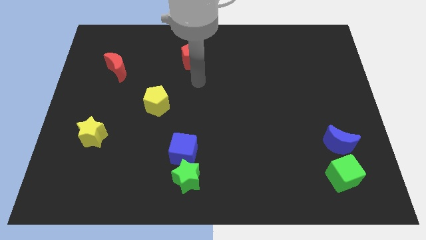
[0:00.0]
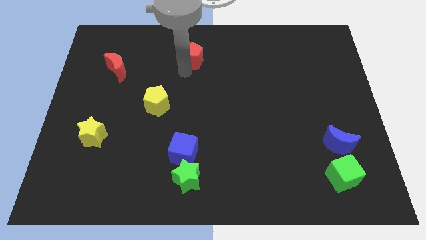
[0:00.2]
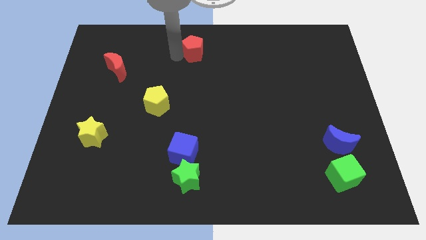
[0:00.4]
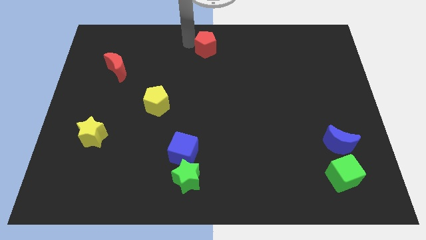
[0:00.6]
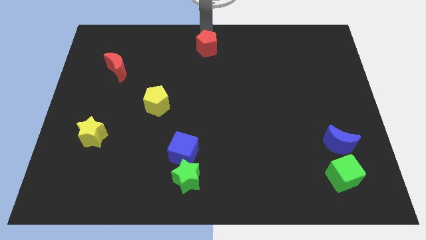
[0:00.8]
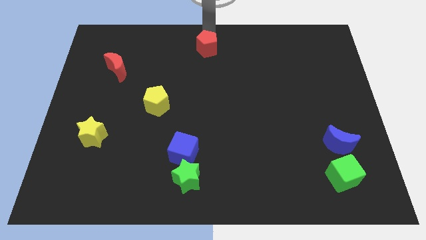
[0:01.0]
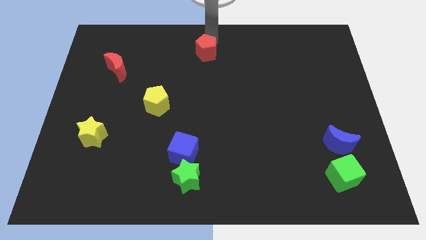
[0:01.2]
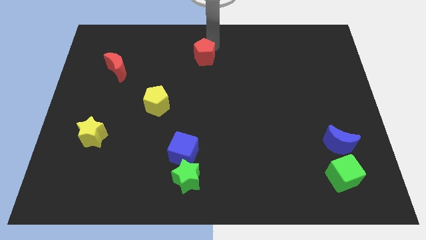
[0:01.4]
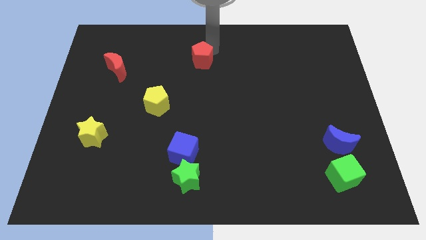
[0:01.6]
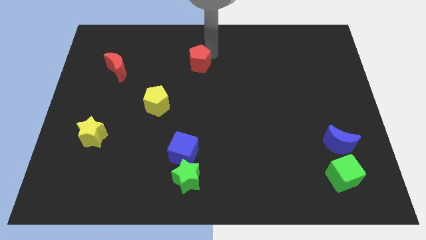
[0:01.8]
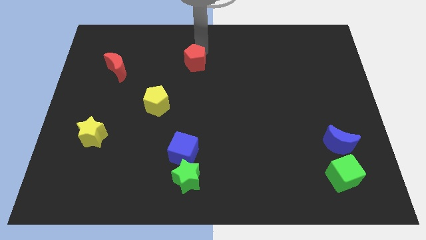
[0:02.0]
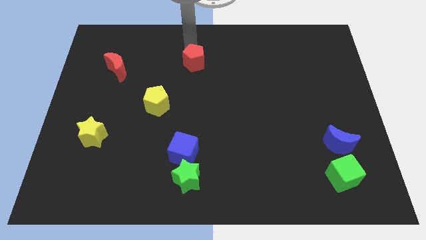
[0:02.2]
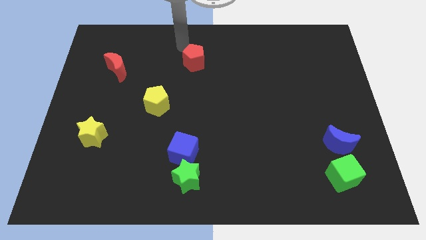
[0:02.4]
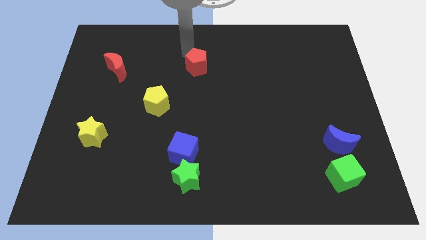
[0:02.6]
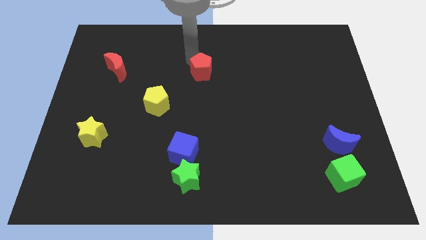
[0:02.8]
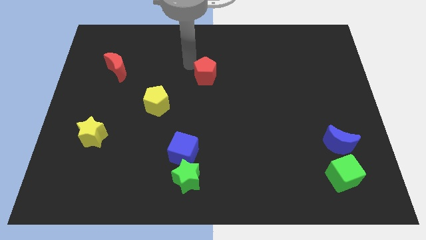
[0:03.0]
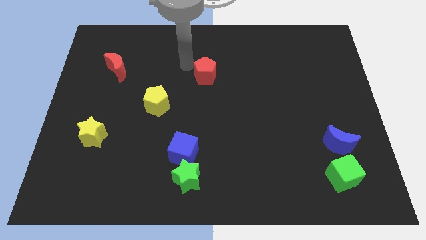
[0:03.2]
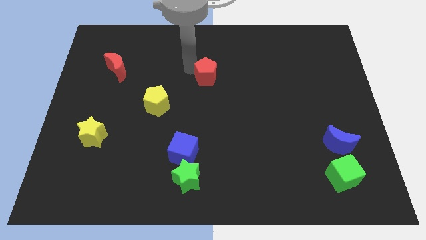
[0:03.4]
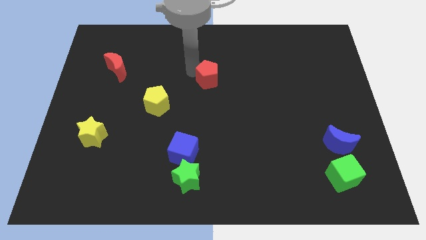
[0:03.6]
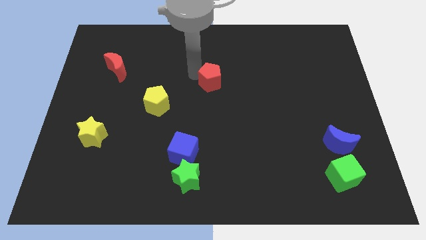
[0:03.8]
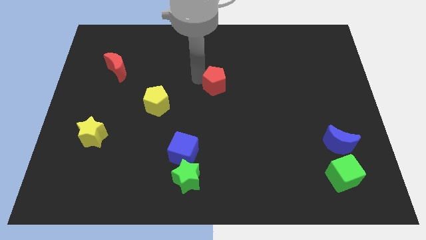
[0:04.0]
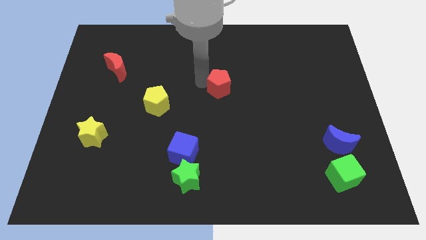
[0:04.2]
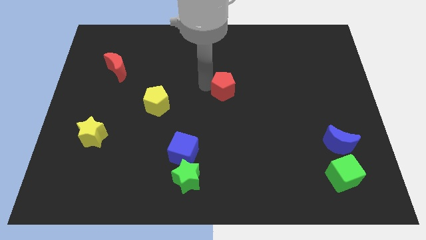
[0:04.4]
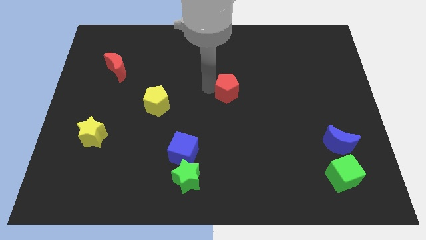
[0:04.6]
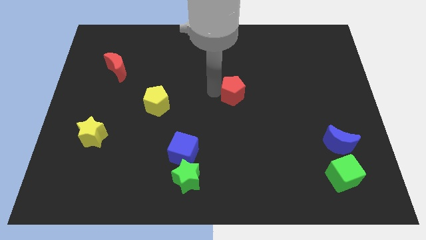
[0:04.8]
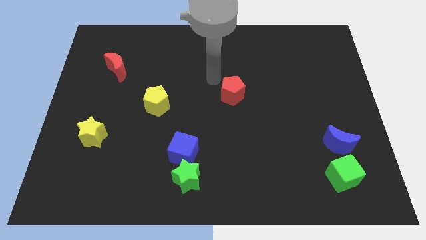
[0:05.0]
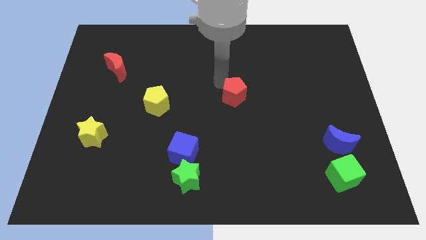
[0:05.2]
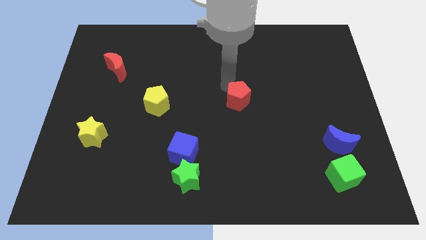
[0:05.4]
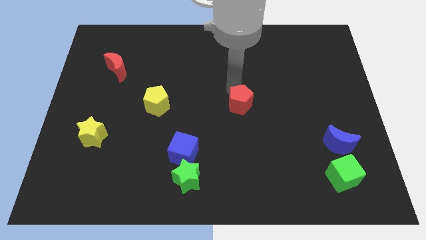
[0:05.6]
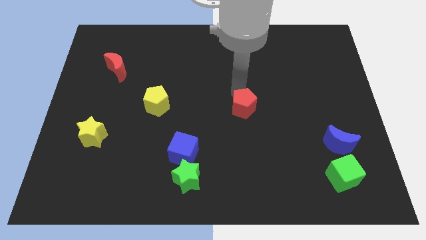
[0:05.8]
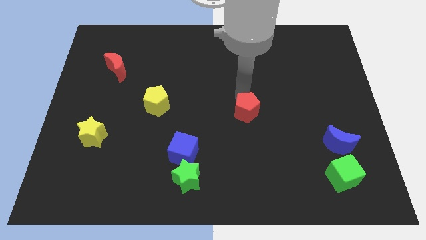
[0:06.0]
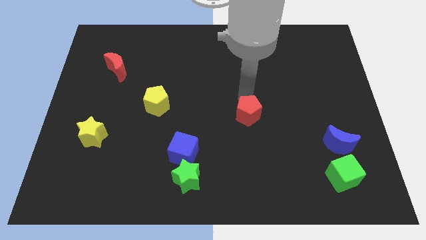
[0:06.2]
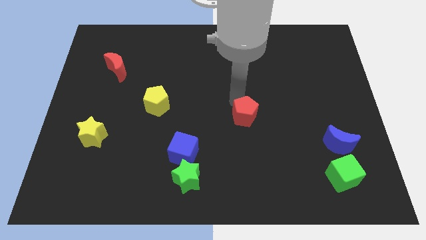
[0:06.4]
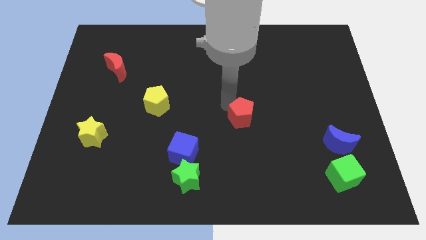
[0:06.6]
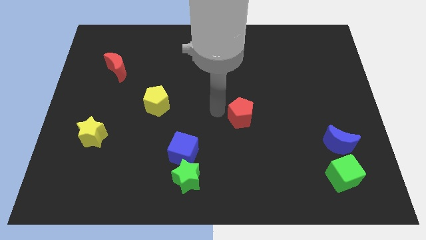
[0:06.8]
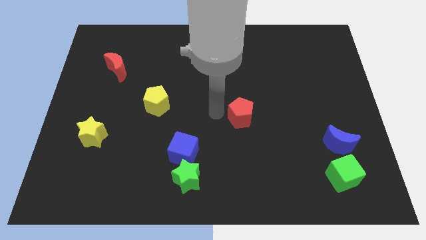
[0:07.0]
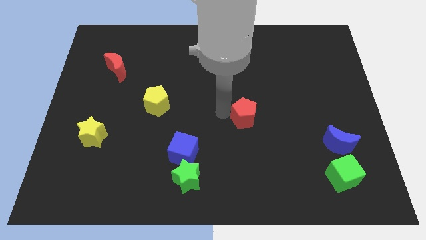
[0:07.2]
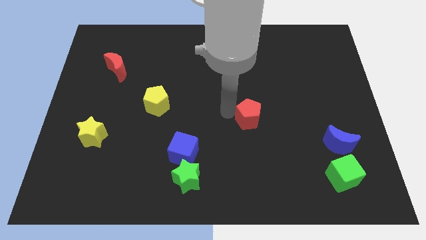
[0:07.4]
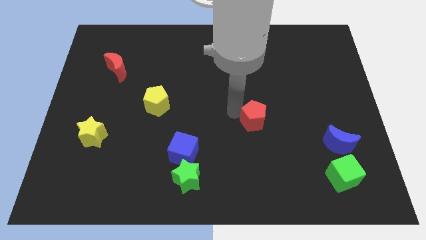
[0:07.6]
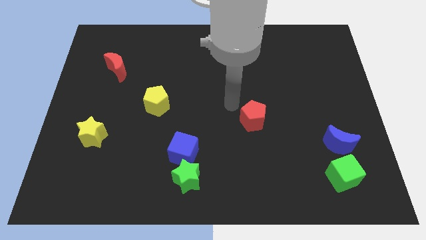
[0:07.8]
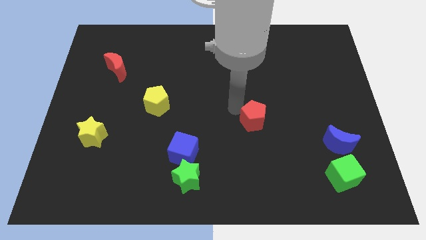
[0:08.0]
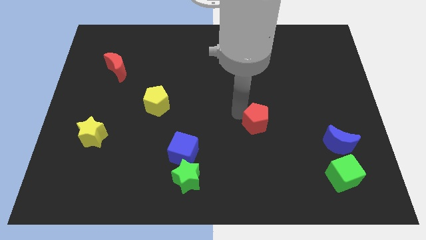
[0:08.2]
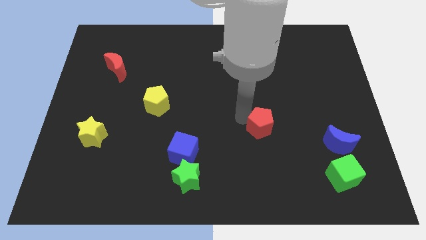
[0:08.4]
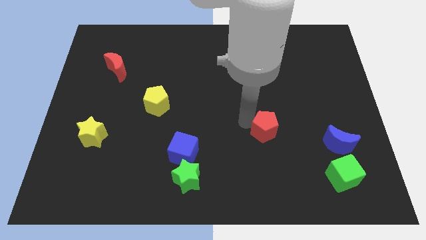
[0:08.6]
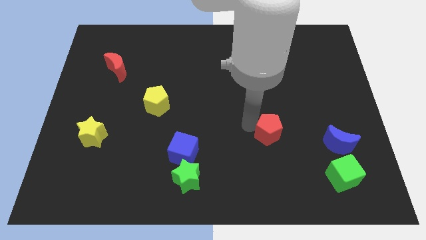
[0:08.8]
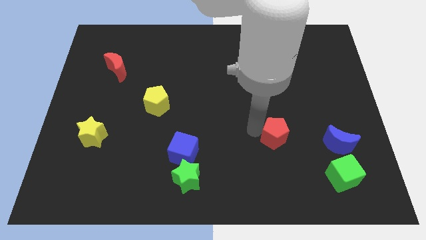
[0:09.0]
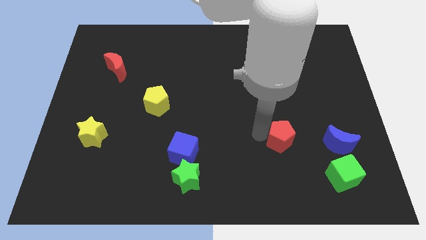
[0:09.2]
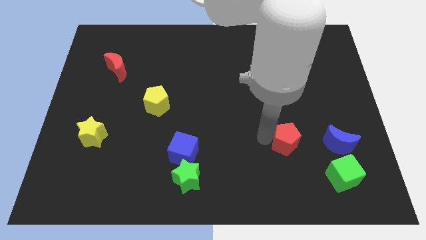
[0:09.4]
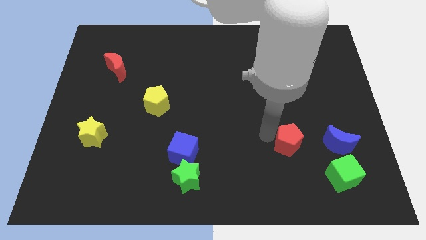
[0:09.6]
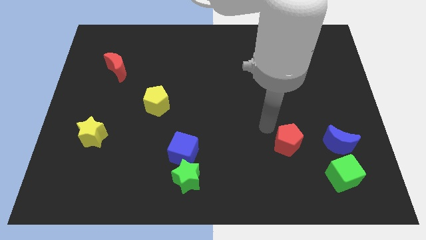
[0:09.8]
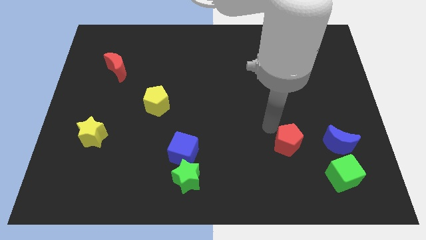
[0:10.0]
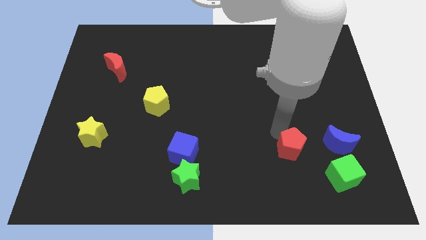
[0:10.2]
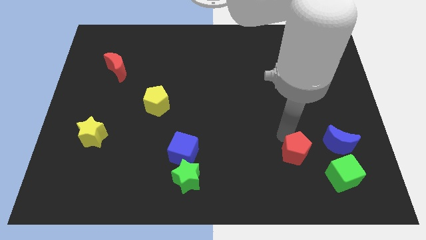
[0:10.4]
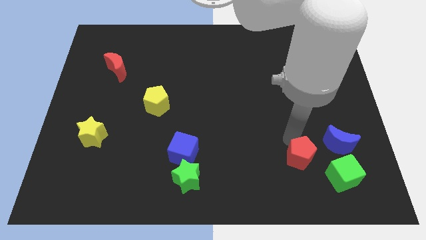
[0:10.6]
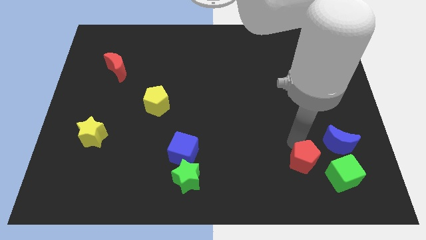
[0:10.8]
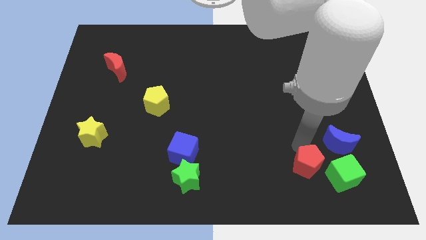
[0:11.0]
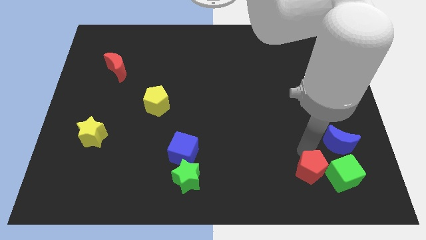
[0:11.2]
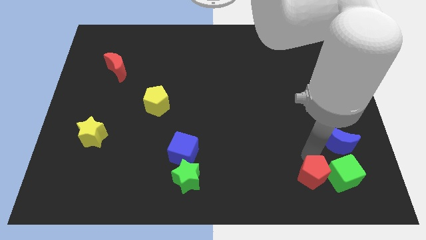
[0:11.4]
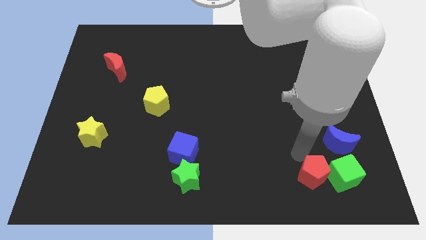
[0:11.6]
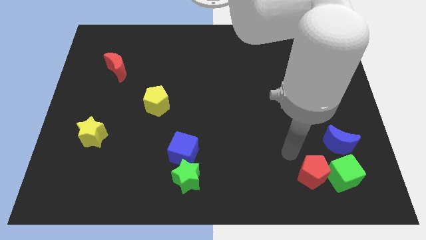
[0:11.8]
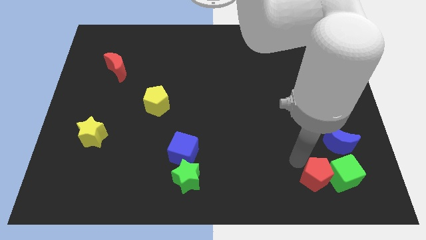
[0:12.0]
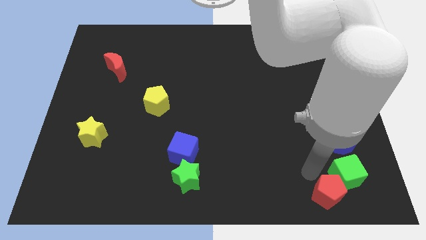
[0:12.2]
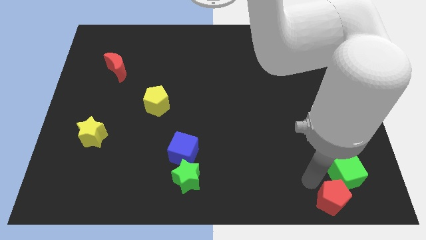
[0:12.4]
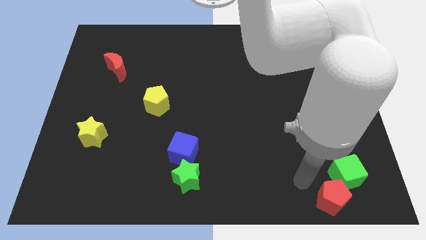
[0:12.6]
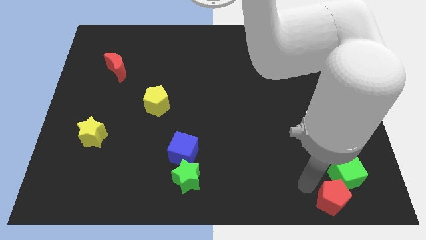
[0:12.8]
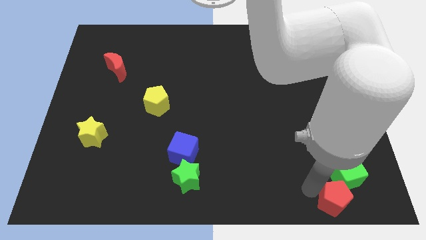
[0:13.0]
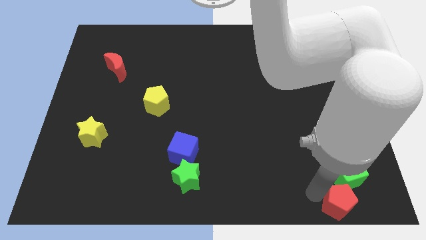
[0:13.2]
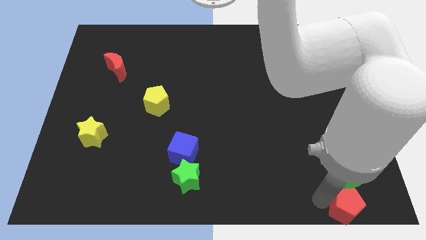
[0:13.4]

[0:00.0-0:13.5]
put the red pentagon to the lower right corner
